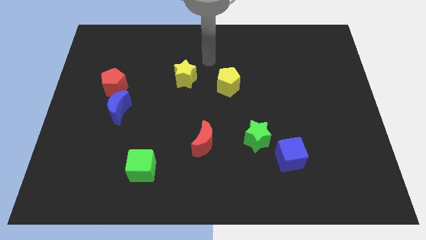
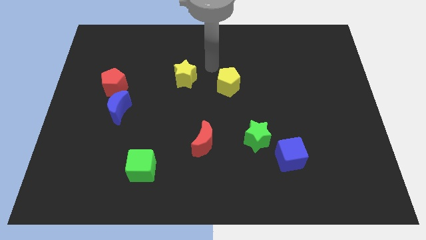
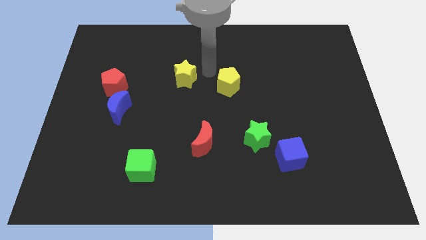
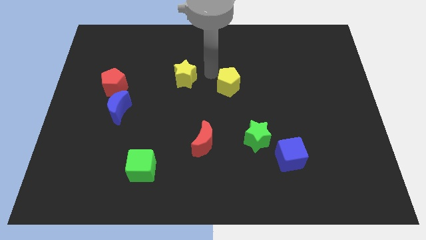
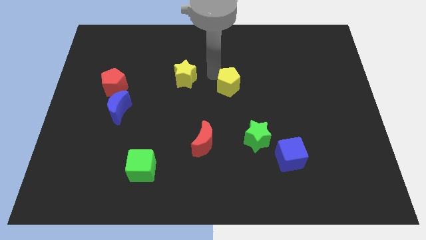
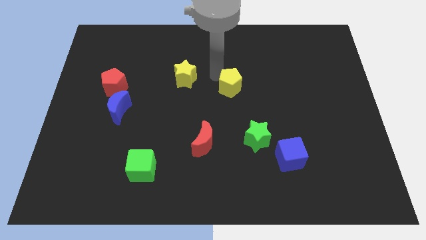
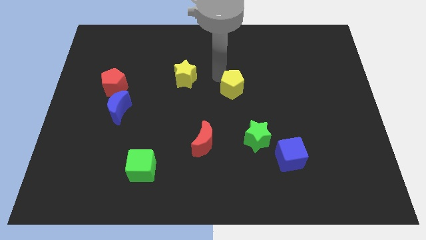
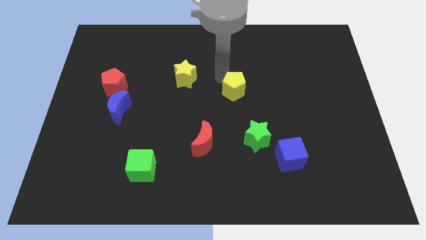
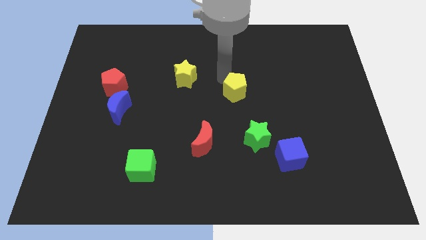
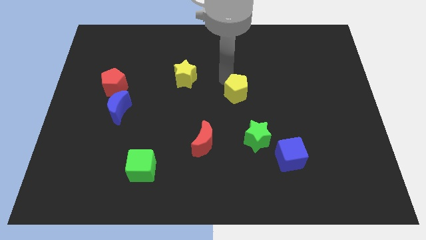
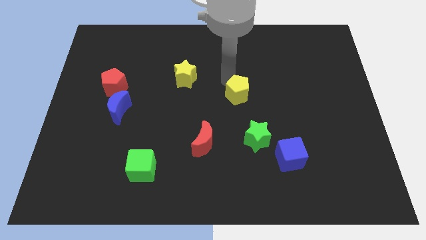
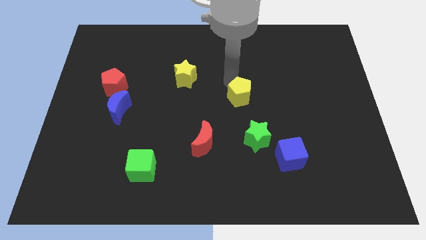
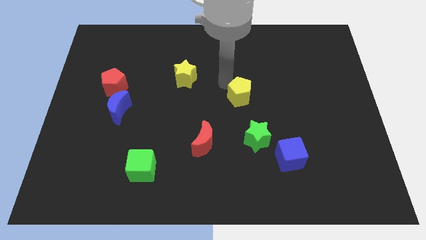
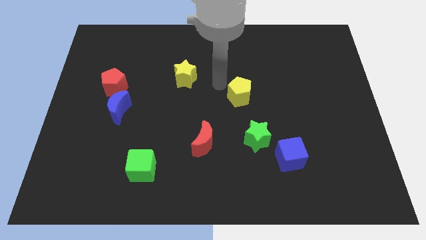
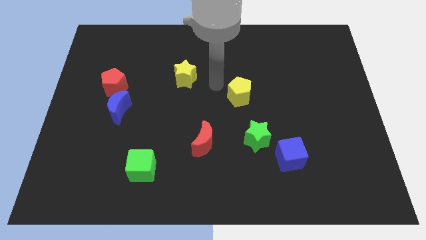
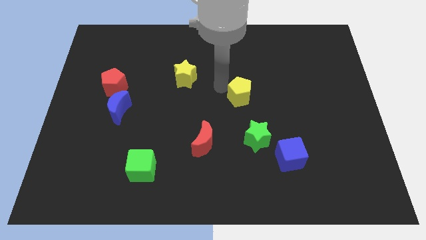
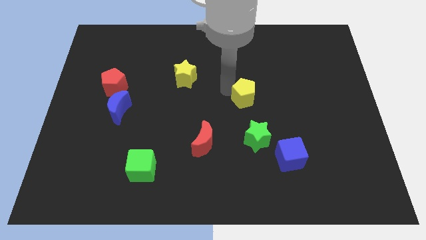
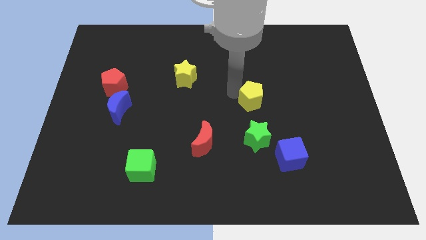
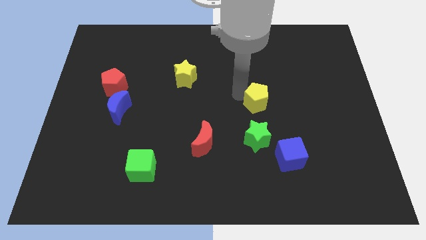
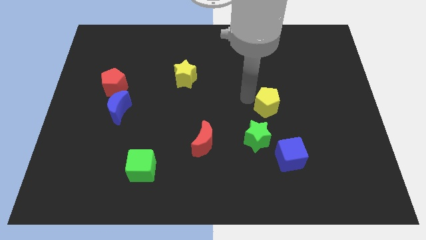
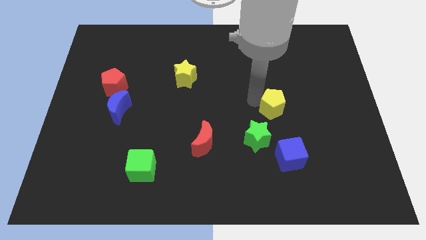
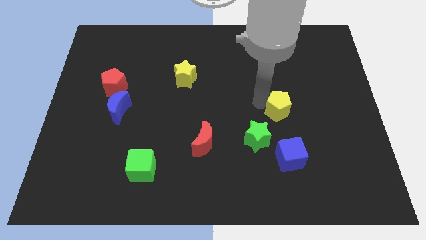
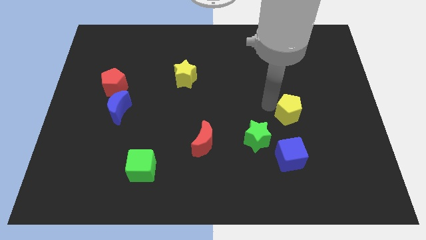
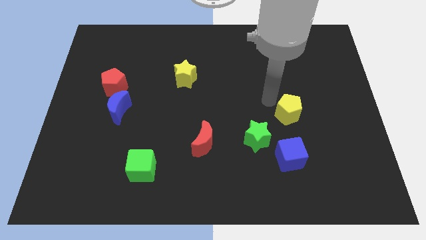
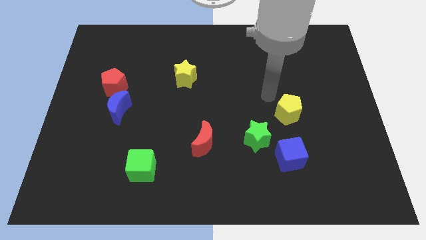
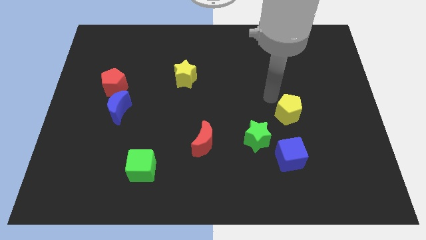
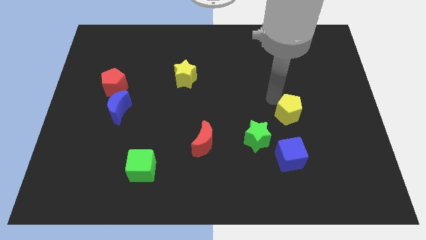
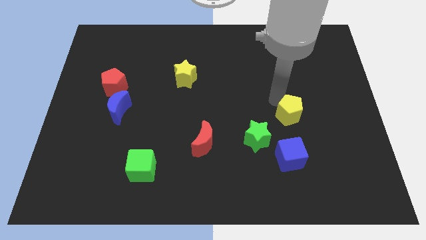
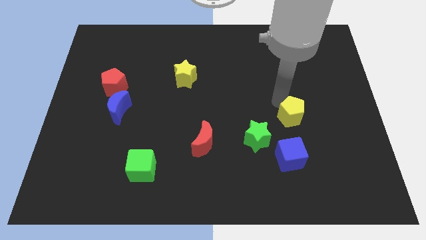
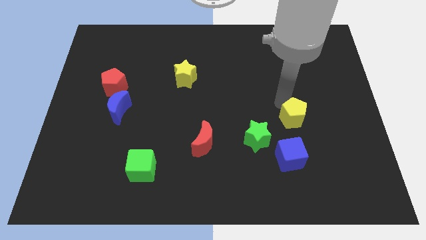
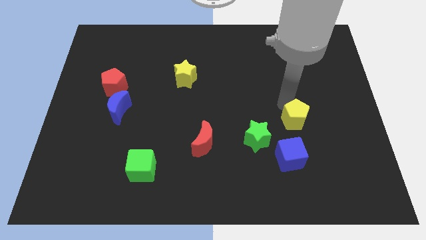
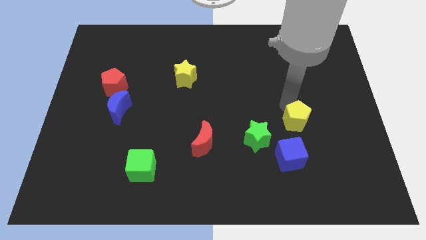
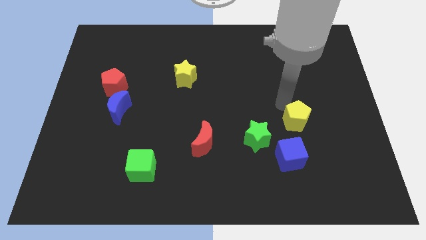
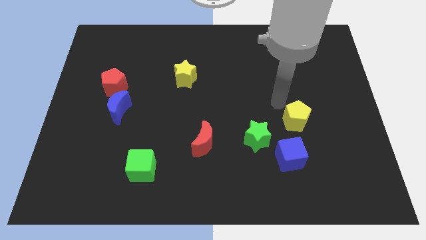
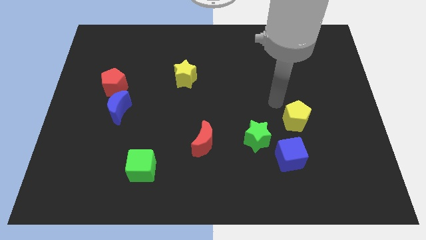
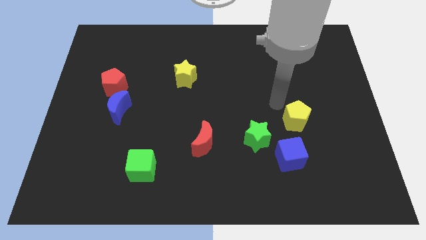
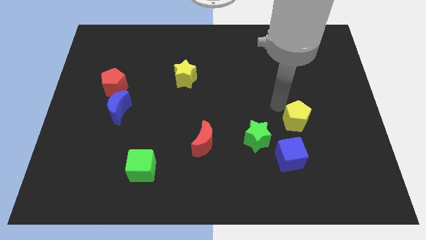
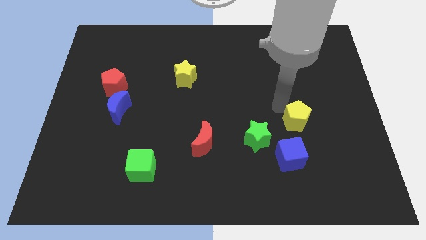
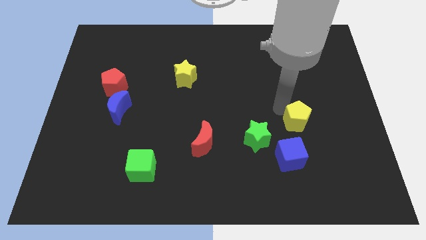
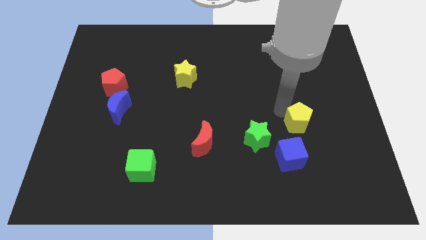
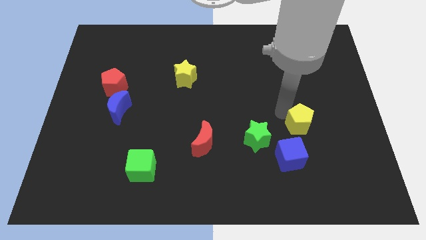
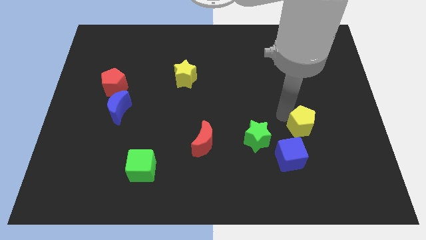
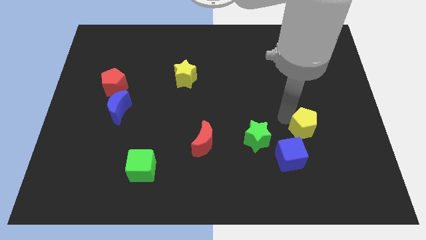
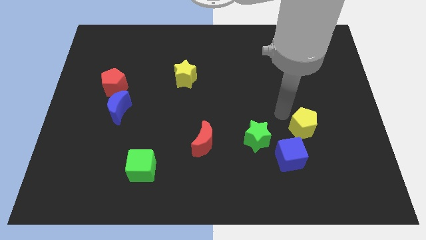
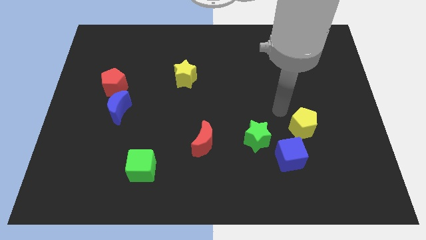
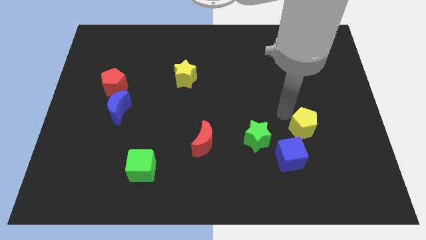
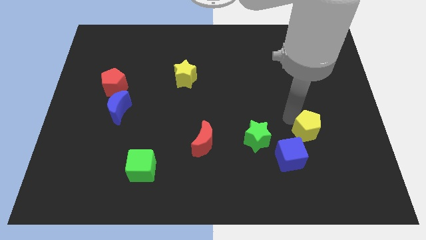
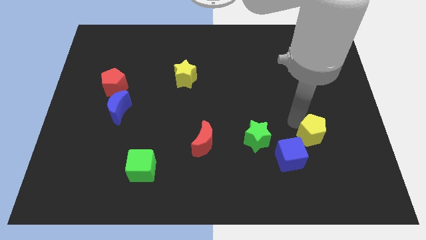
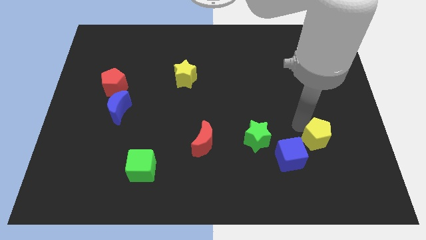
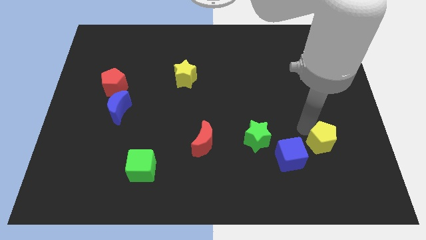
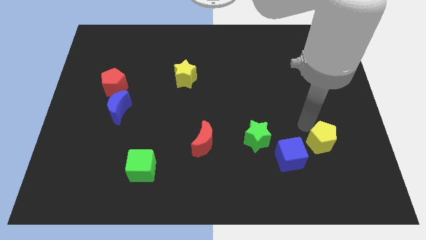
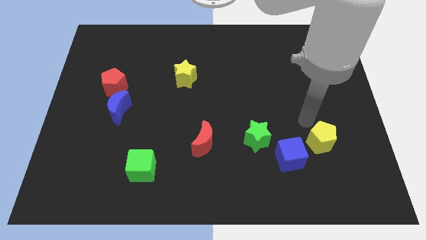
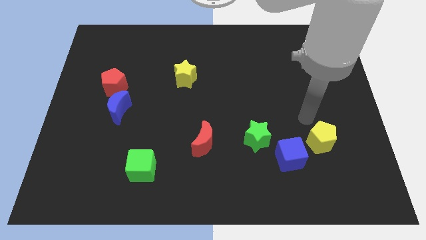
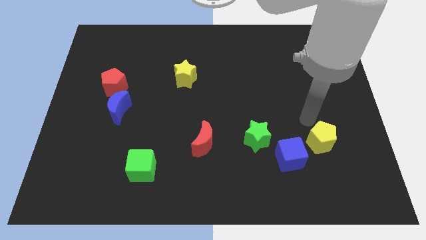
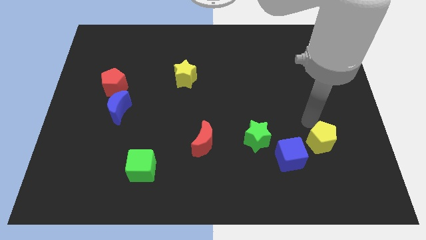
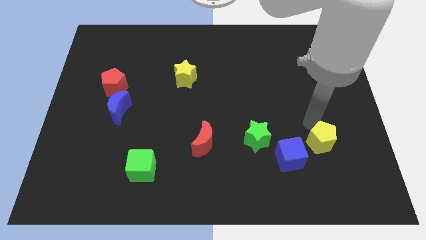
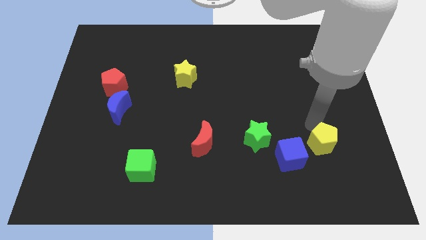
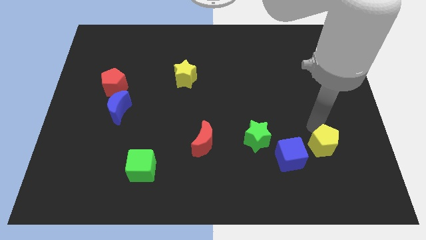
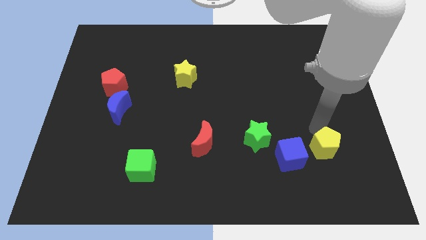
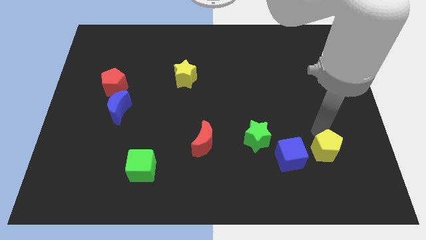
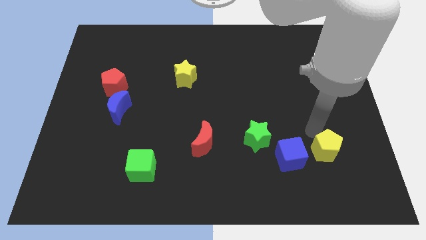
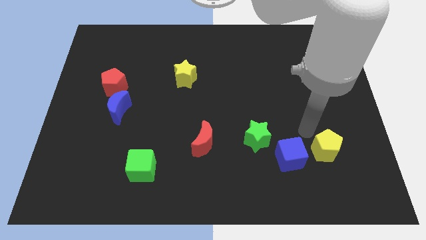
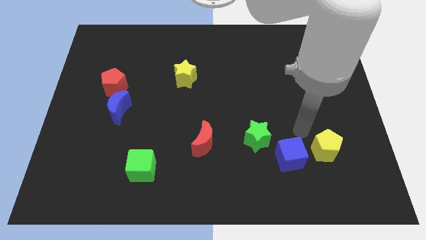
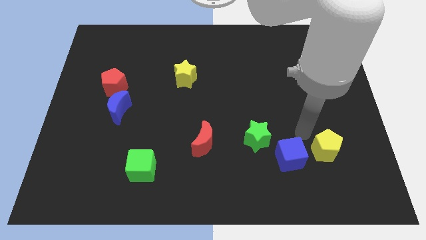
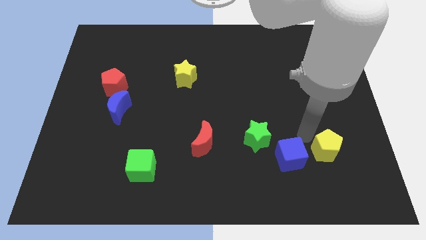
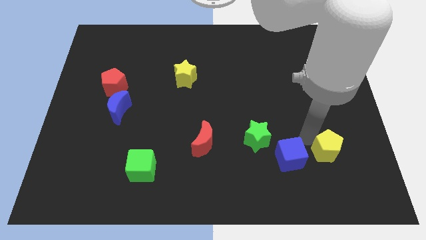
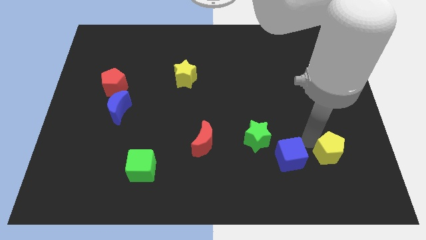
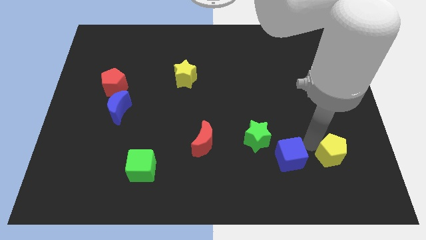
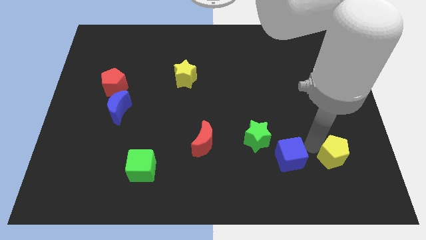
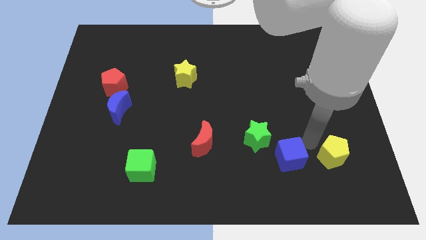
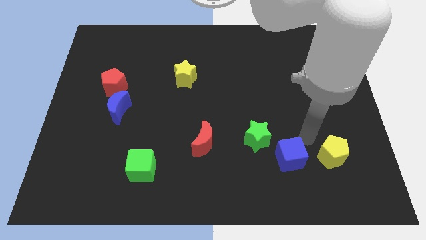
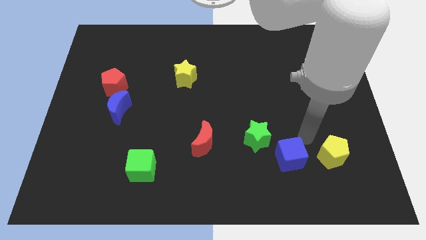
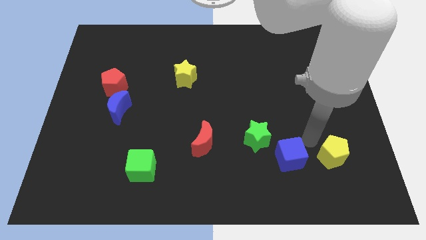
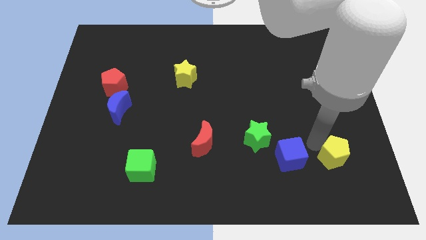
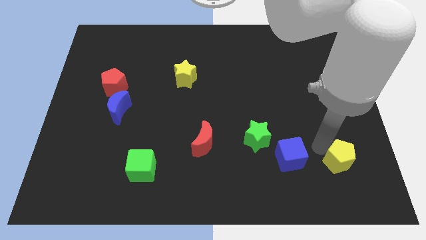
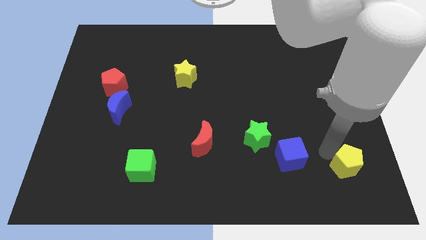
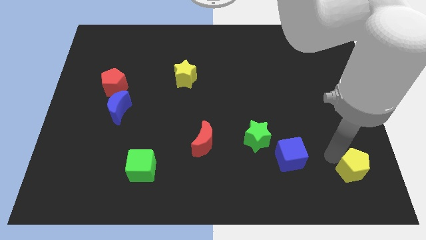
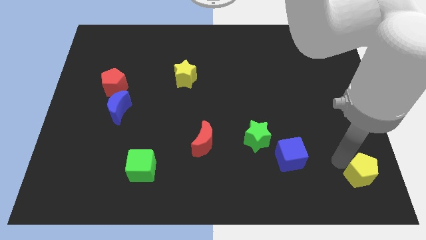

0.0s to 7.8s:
move the yellow pentagon to the bottom right
